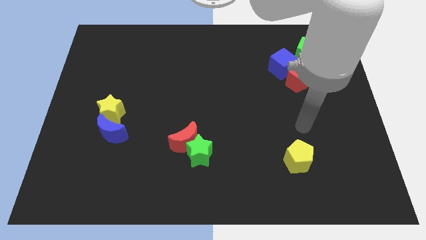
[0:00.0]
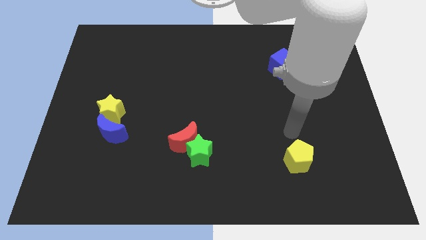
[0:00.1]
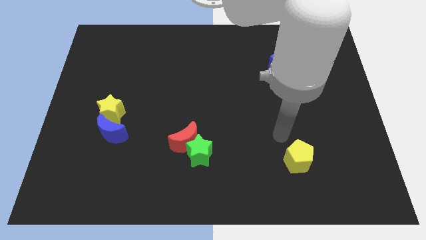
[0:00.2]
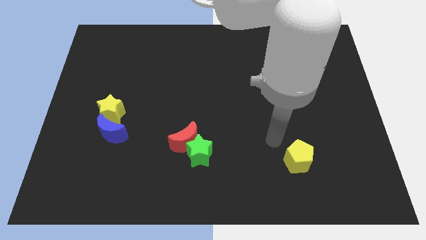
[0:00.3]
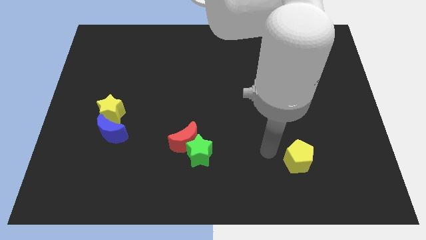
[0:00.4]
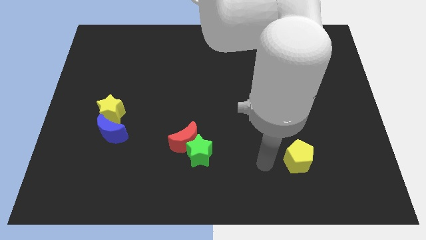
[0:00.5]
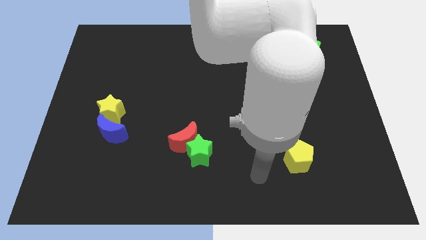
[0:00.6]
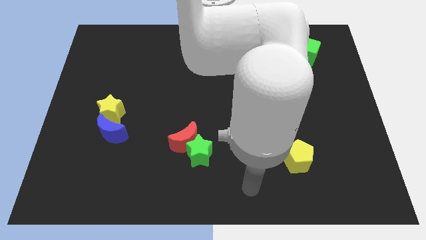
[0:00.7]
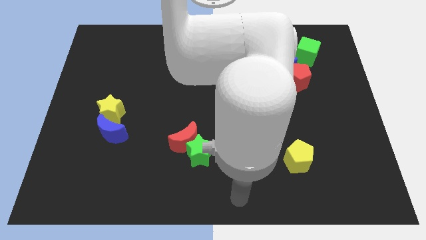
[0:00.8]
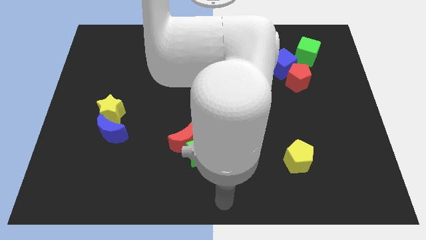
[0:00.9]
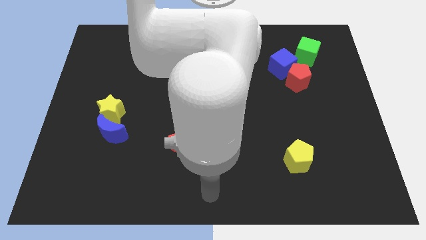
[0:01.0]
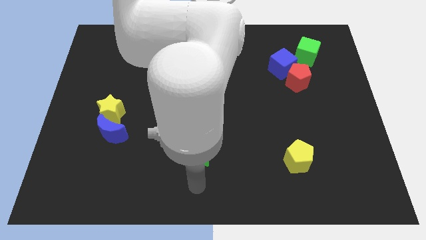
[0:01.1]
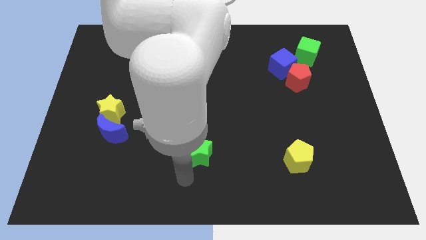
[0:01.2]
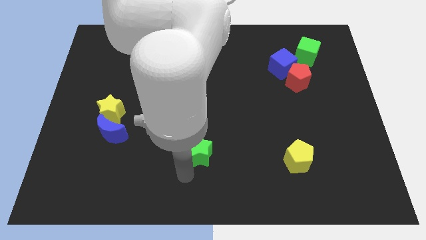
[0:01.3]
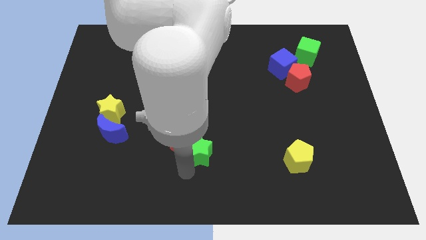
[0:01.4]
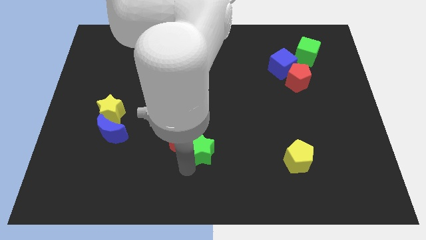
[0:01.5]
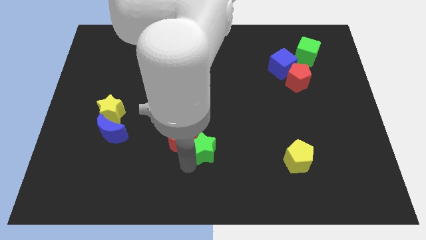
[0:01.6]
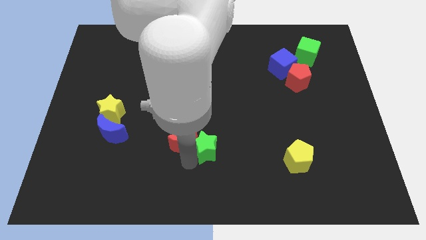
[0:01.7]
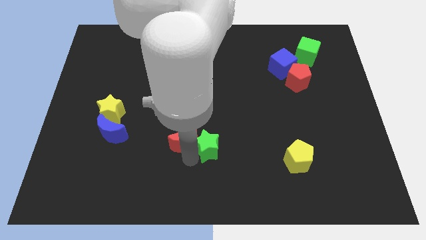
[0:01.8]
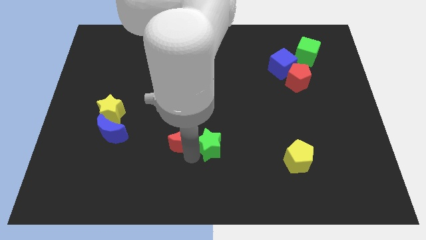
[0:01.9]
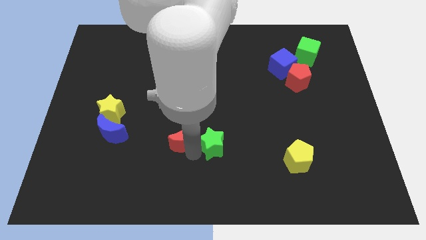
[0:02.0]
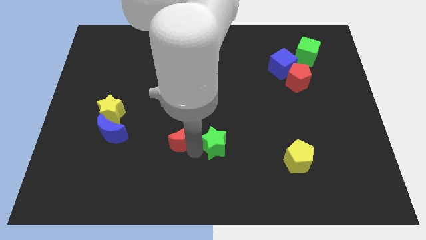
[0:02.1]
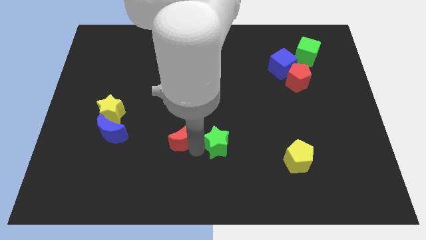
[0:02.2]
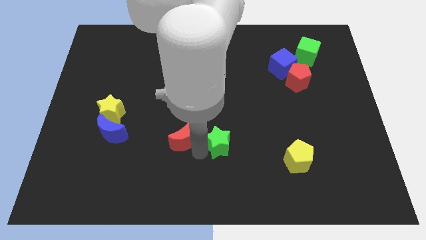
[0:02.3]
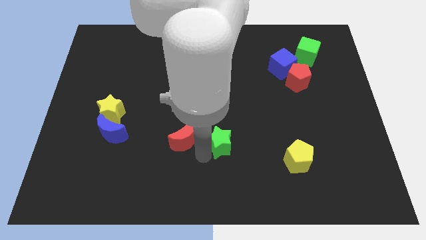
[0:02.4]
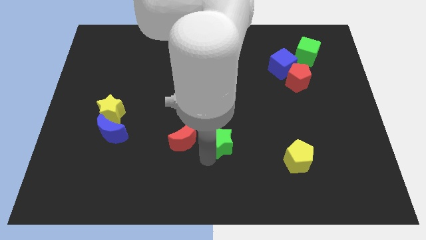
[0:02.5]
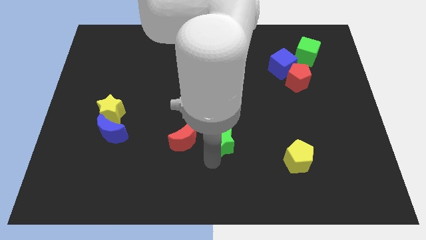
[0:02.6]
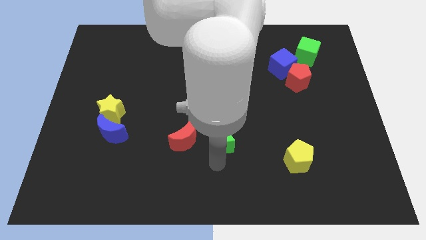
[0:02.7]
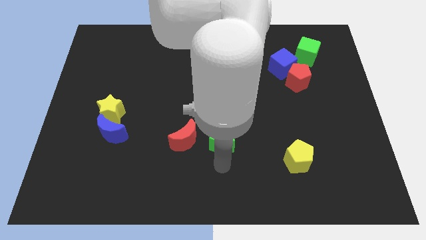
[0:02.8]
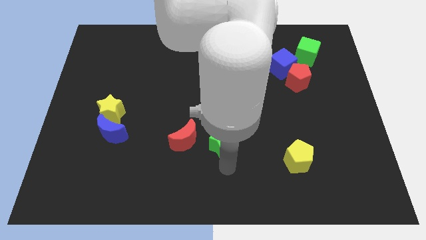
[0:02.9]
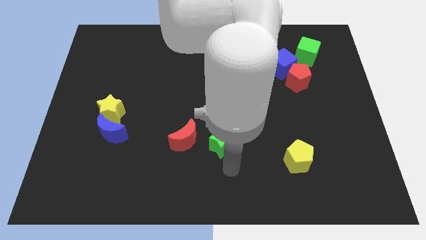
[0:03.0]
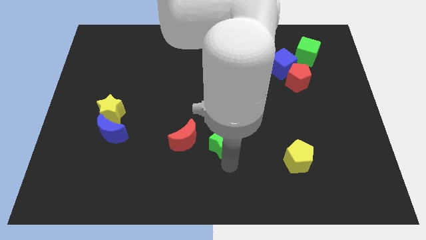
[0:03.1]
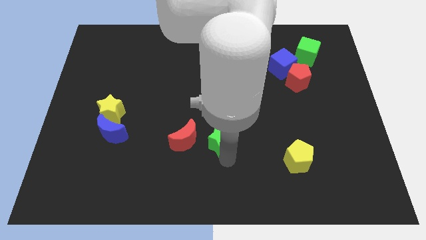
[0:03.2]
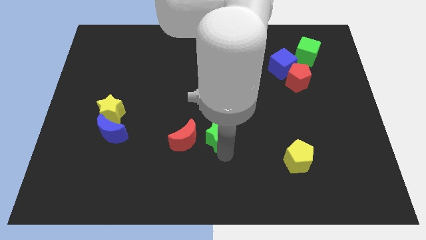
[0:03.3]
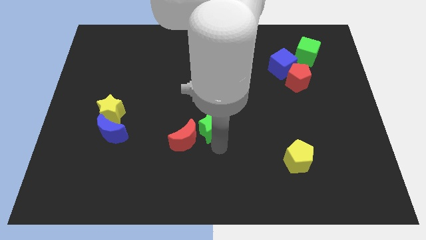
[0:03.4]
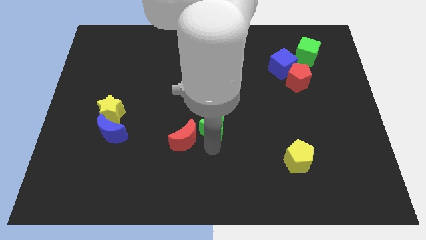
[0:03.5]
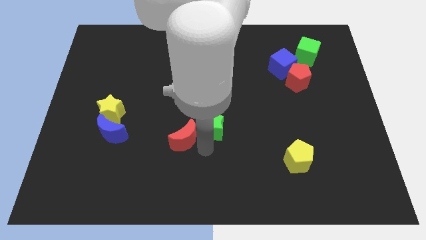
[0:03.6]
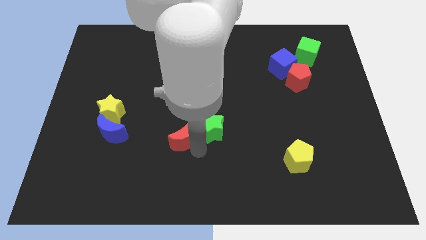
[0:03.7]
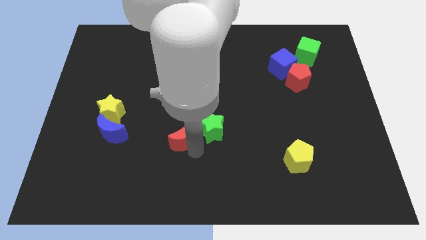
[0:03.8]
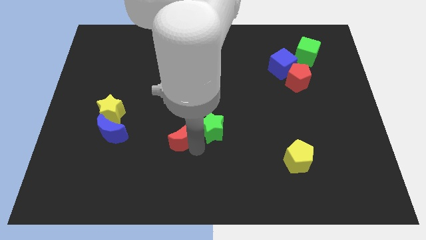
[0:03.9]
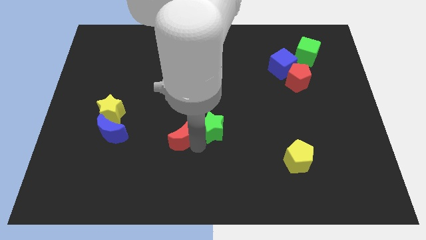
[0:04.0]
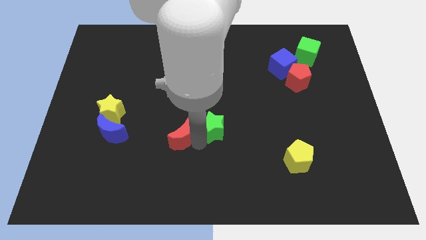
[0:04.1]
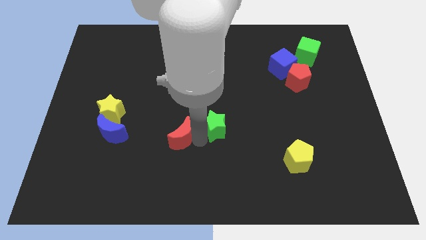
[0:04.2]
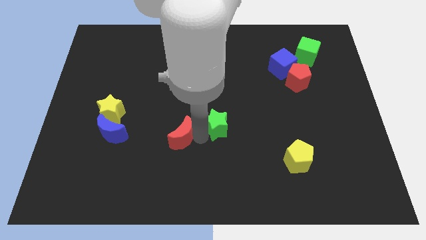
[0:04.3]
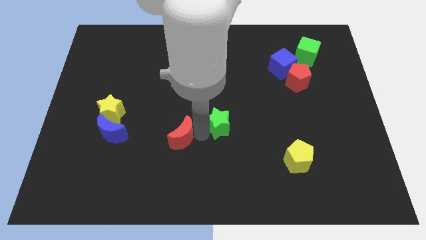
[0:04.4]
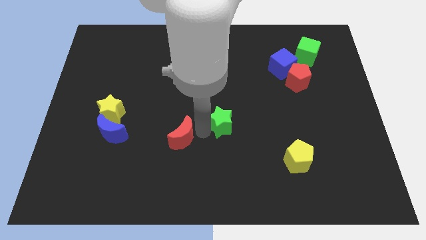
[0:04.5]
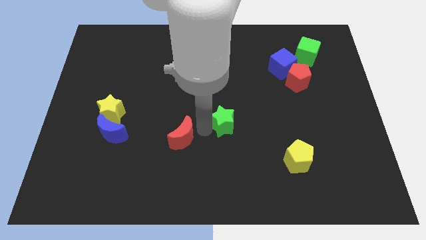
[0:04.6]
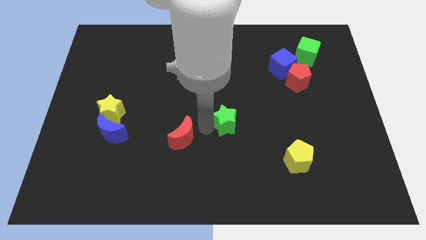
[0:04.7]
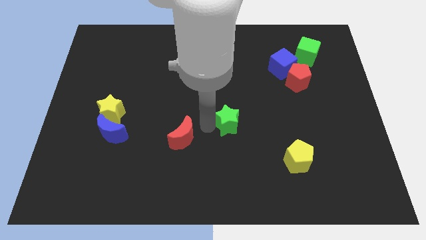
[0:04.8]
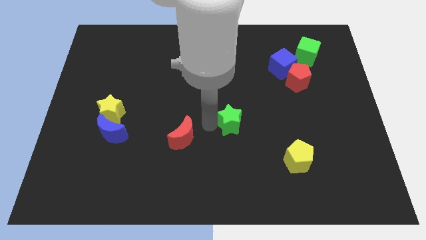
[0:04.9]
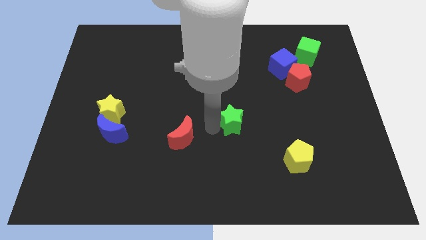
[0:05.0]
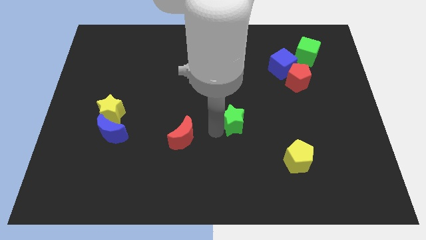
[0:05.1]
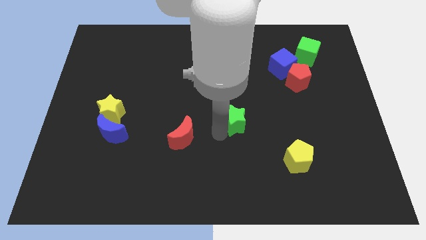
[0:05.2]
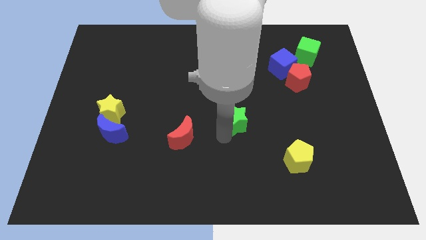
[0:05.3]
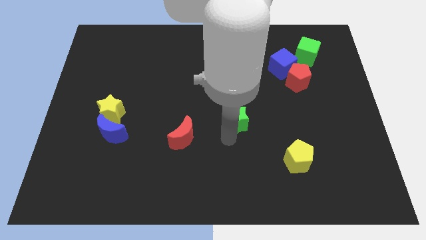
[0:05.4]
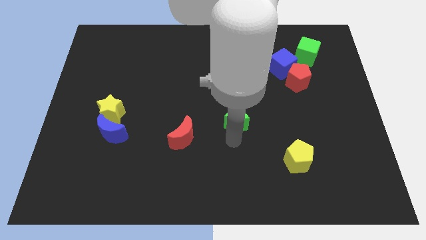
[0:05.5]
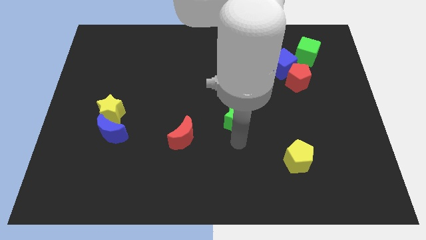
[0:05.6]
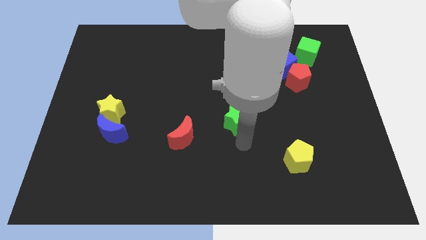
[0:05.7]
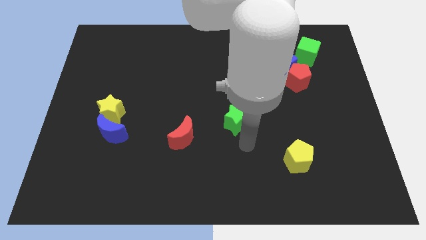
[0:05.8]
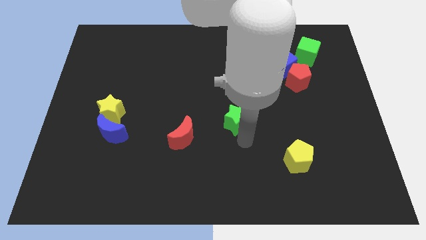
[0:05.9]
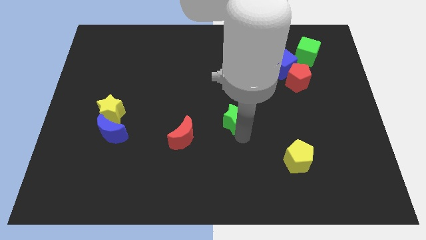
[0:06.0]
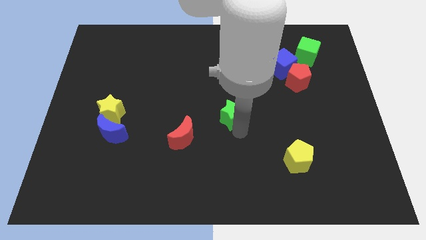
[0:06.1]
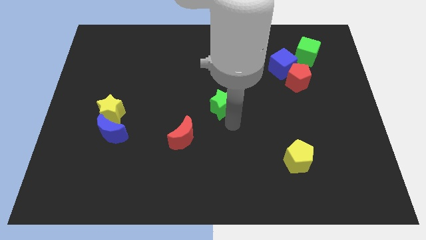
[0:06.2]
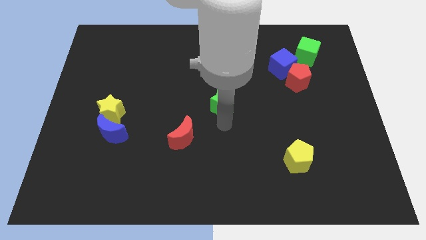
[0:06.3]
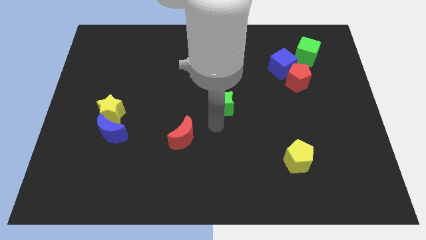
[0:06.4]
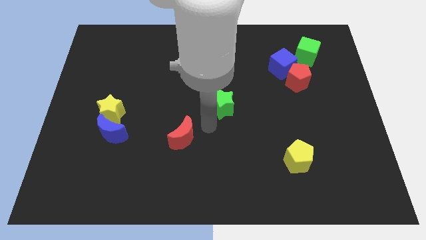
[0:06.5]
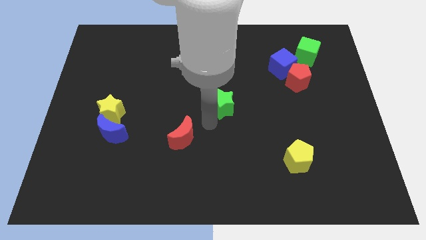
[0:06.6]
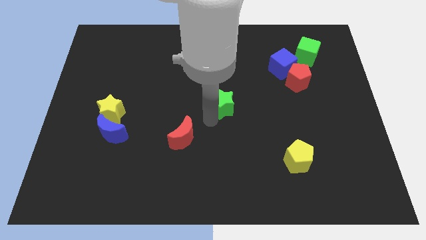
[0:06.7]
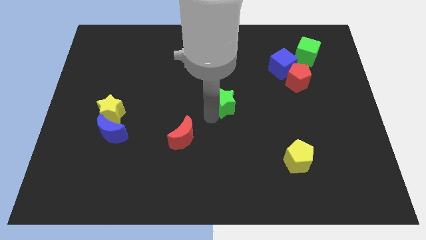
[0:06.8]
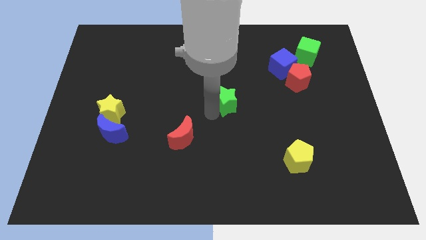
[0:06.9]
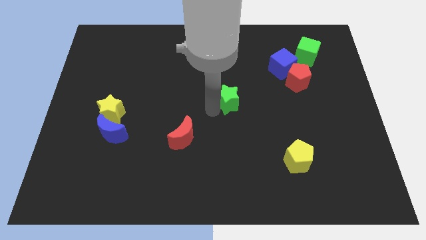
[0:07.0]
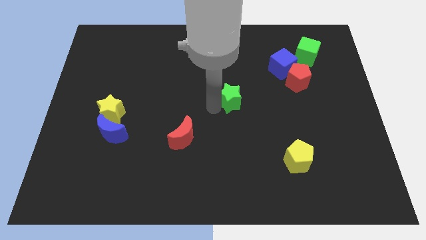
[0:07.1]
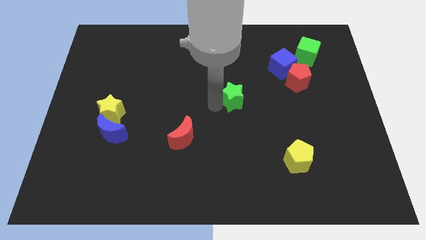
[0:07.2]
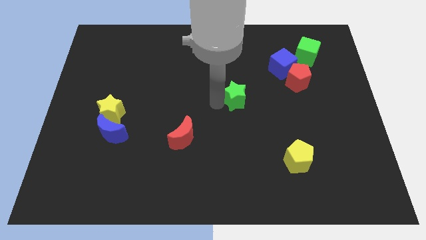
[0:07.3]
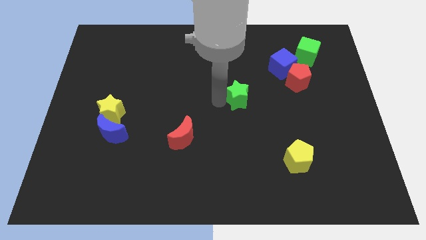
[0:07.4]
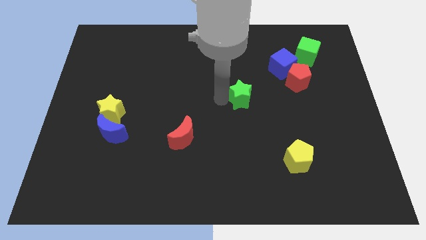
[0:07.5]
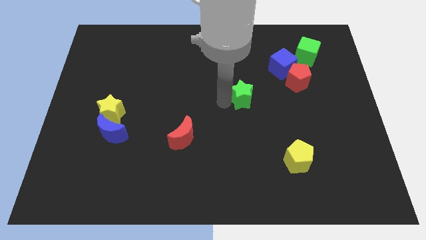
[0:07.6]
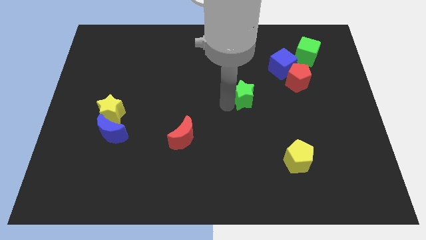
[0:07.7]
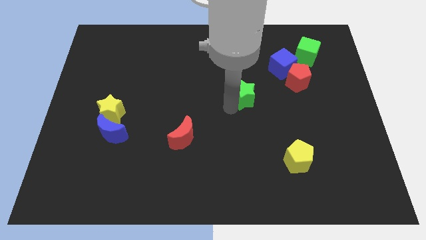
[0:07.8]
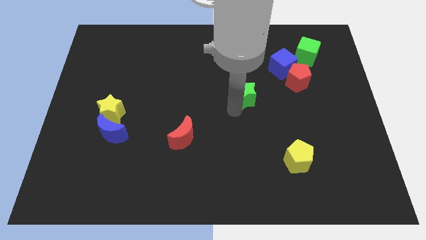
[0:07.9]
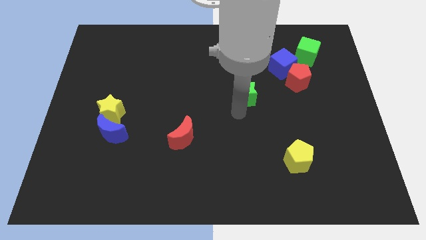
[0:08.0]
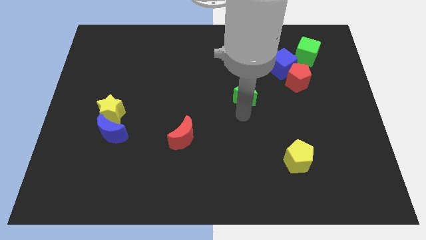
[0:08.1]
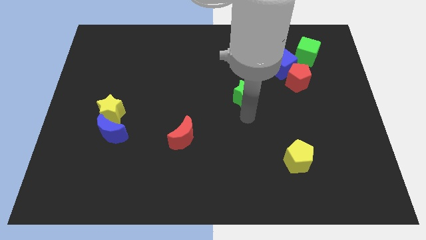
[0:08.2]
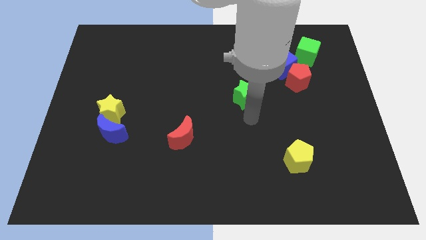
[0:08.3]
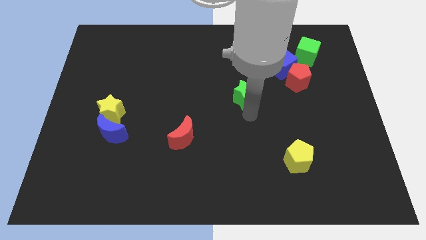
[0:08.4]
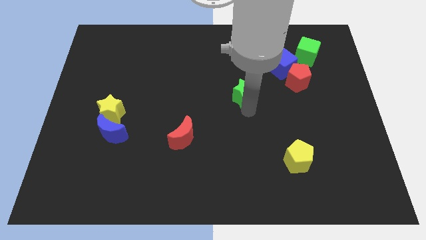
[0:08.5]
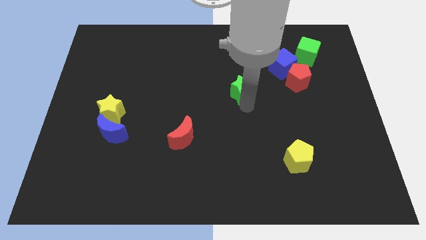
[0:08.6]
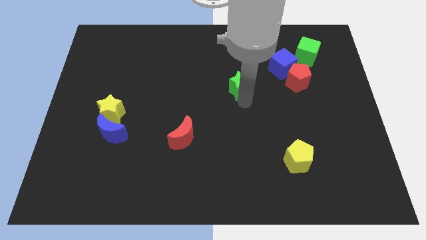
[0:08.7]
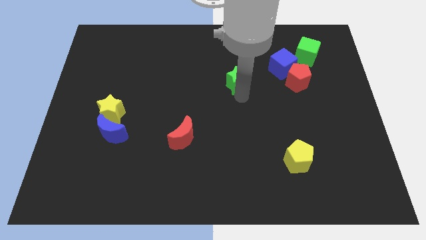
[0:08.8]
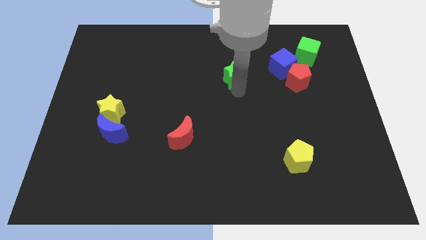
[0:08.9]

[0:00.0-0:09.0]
slide the green star just left of the blue cube
